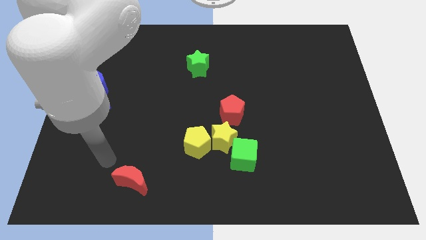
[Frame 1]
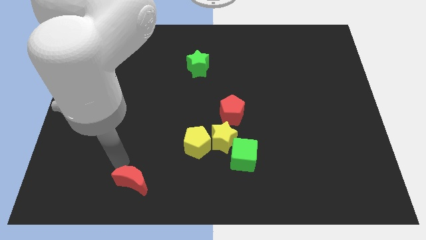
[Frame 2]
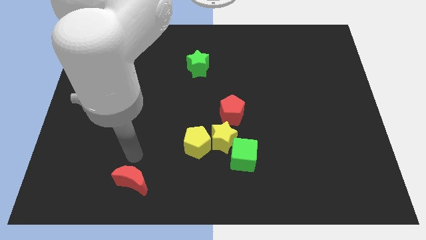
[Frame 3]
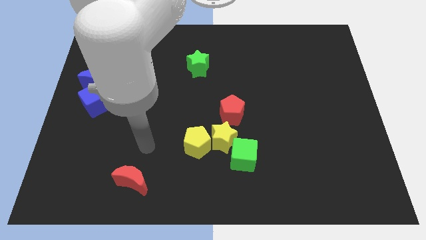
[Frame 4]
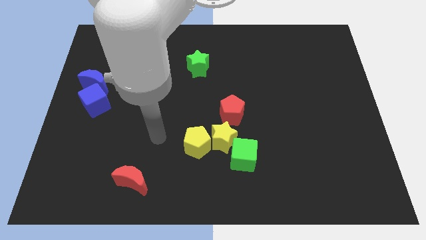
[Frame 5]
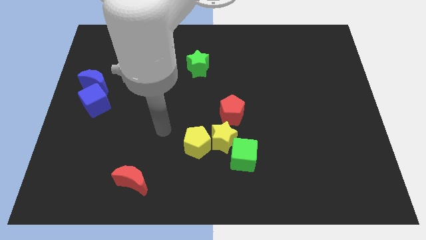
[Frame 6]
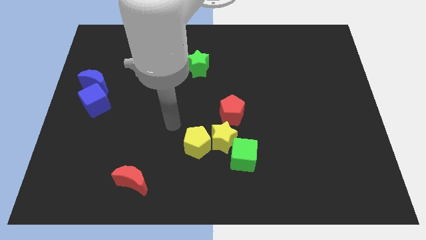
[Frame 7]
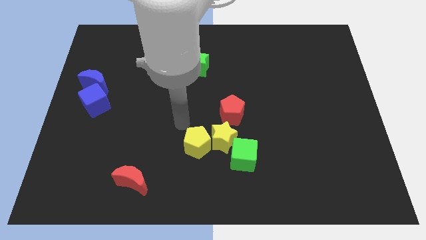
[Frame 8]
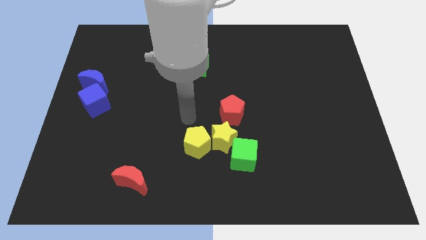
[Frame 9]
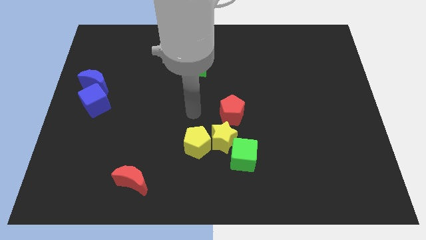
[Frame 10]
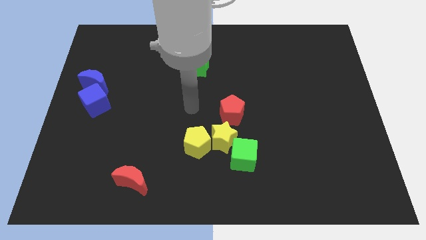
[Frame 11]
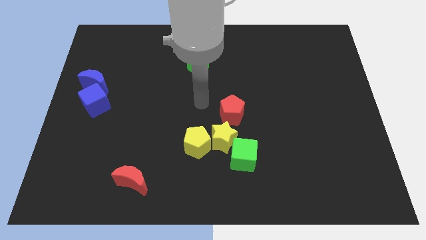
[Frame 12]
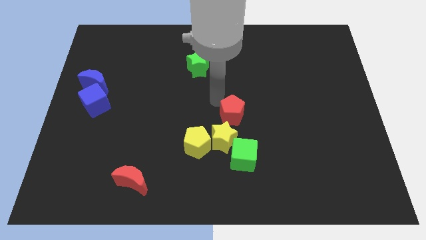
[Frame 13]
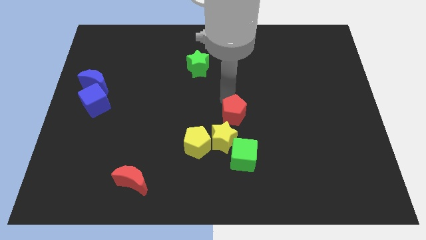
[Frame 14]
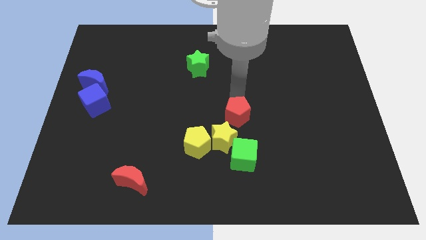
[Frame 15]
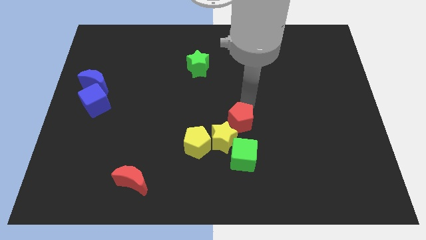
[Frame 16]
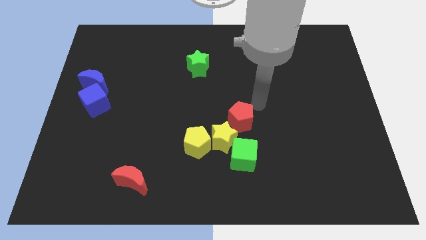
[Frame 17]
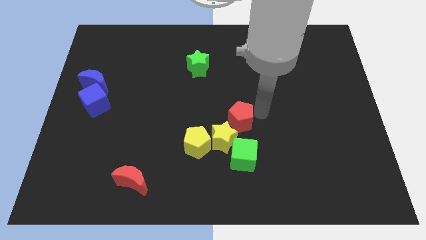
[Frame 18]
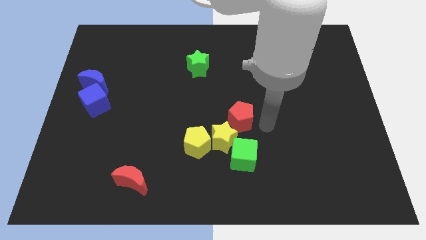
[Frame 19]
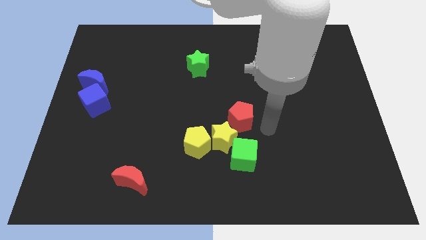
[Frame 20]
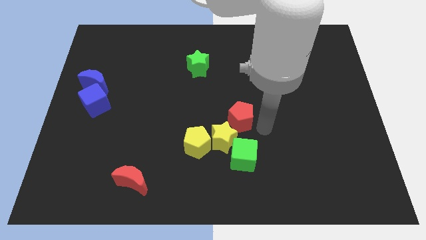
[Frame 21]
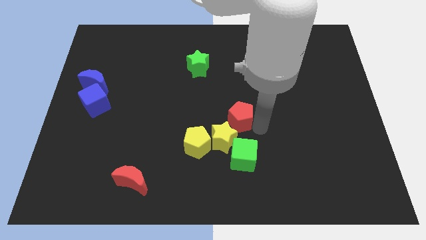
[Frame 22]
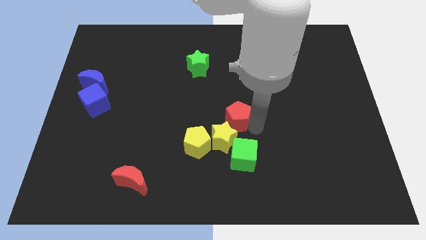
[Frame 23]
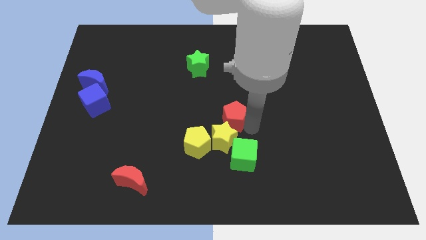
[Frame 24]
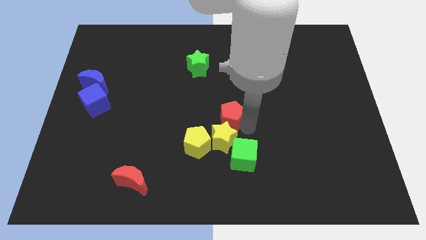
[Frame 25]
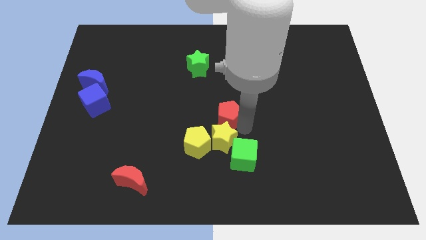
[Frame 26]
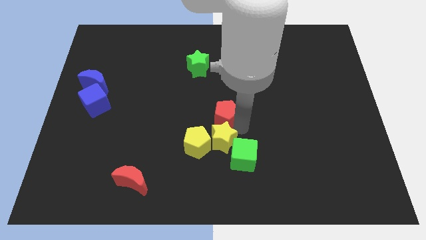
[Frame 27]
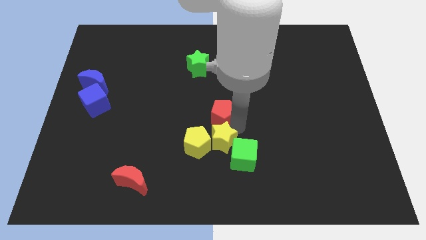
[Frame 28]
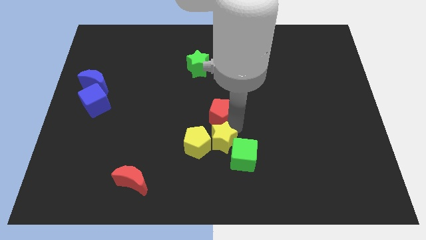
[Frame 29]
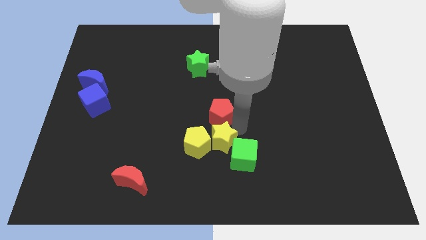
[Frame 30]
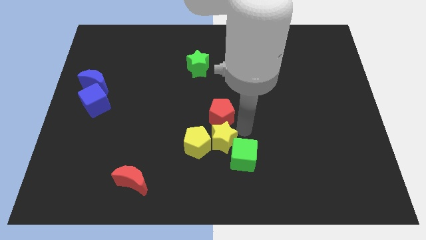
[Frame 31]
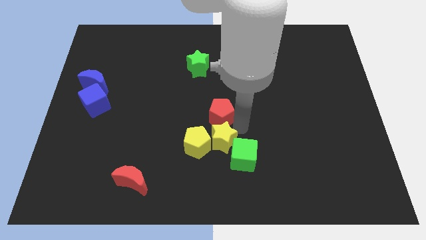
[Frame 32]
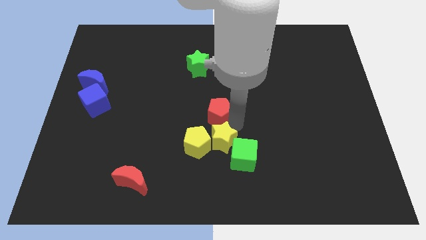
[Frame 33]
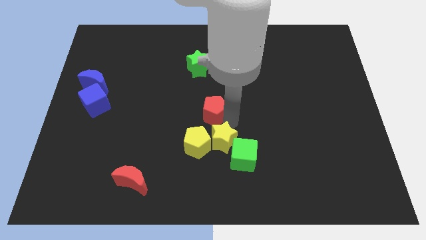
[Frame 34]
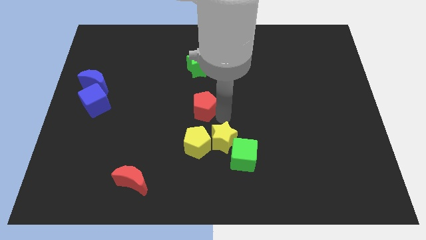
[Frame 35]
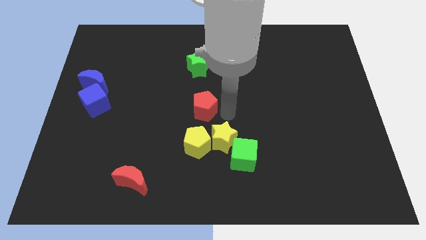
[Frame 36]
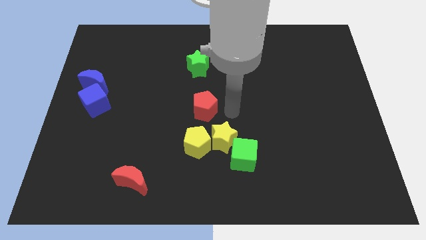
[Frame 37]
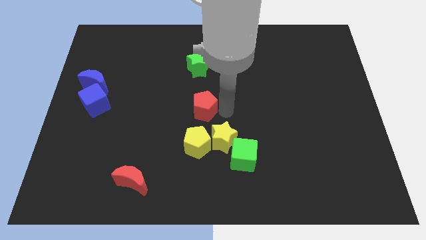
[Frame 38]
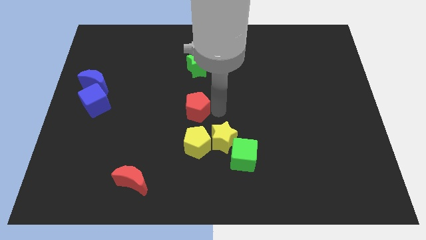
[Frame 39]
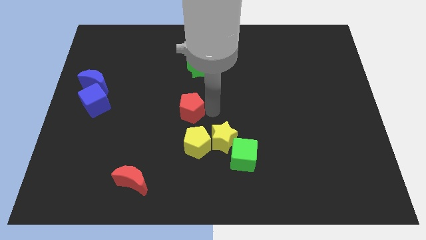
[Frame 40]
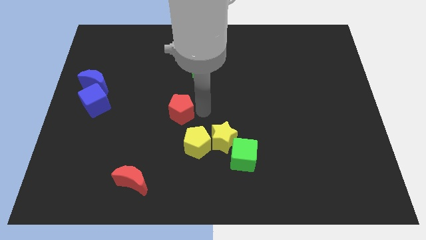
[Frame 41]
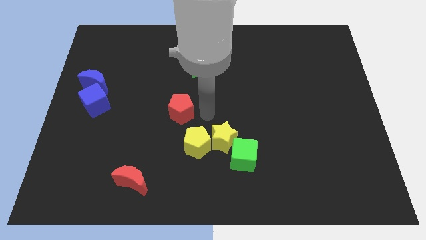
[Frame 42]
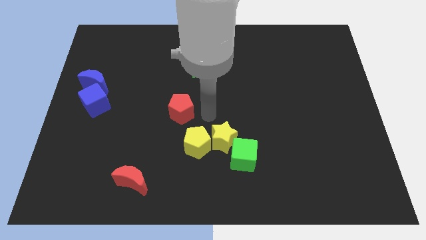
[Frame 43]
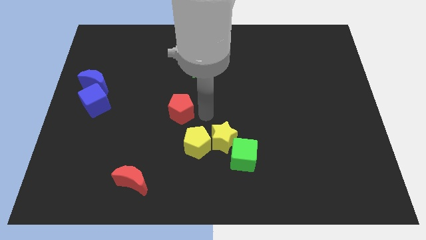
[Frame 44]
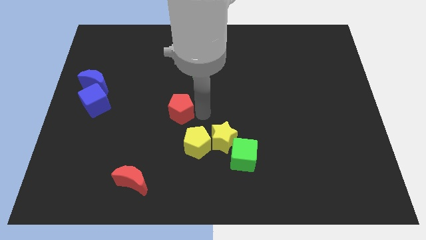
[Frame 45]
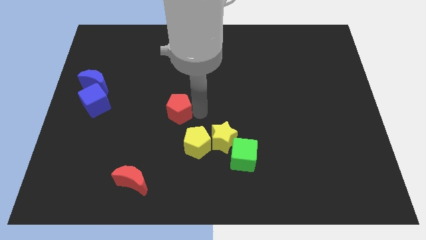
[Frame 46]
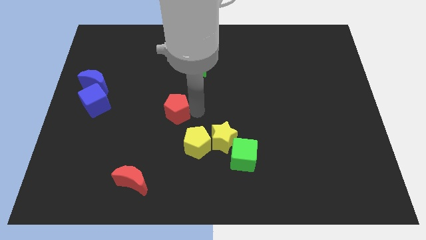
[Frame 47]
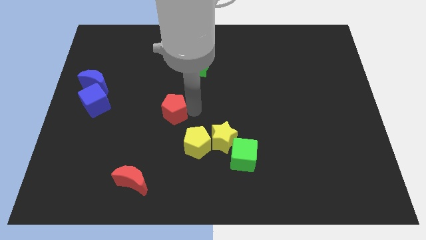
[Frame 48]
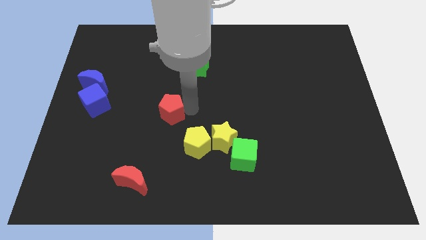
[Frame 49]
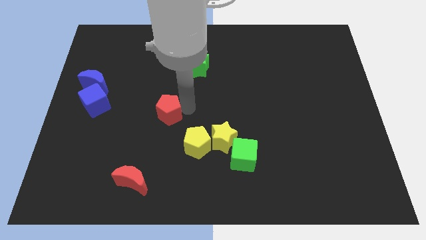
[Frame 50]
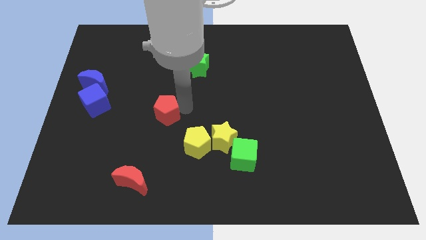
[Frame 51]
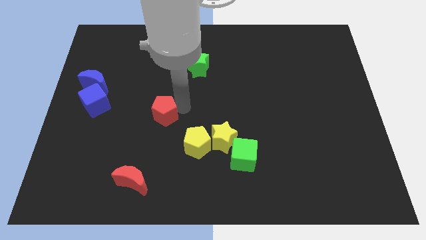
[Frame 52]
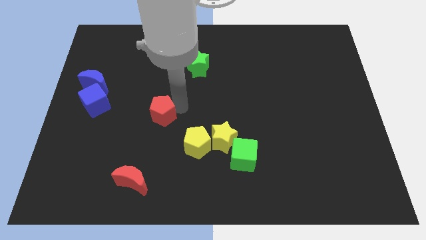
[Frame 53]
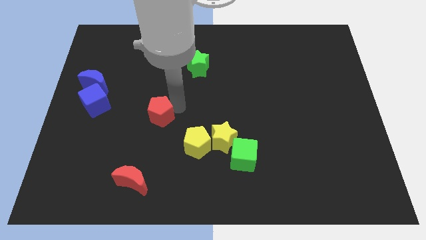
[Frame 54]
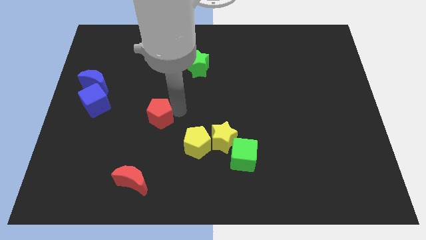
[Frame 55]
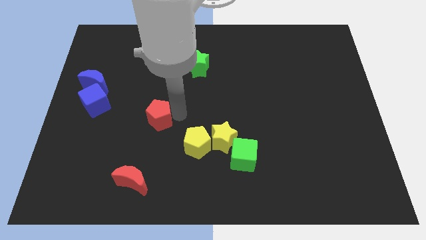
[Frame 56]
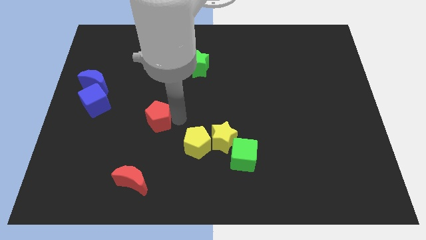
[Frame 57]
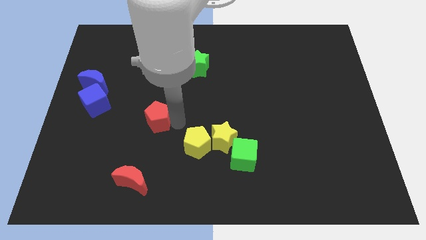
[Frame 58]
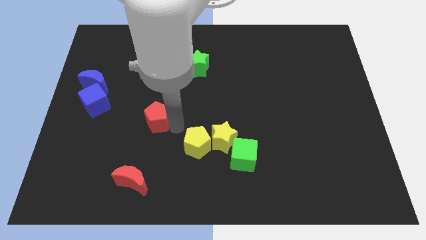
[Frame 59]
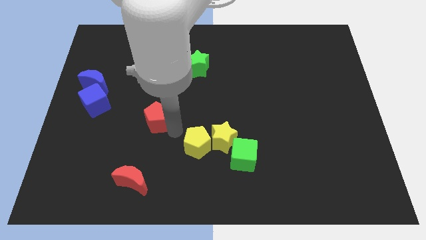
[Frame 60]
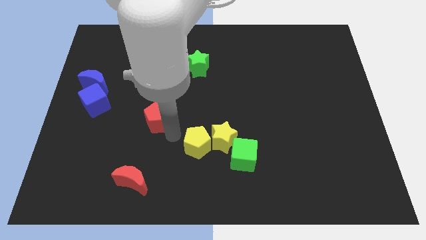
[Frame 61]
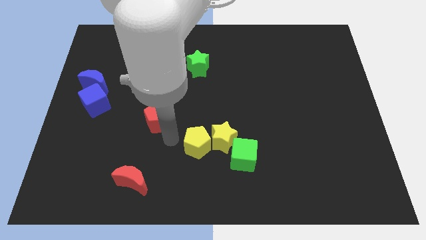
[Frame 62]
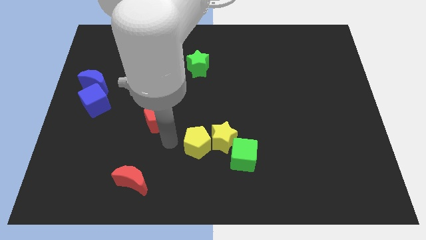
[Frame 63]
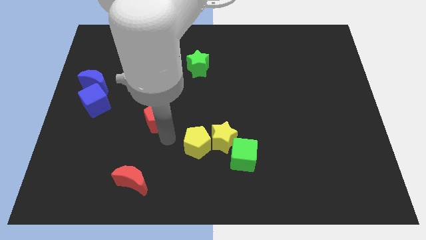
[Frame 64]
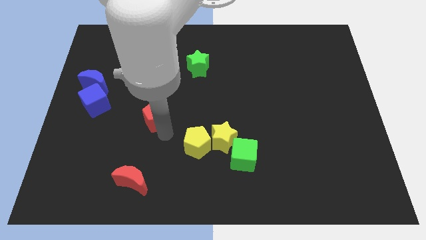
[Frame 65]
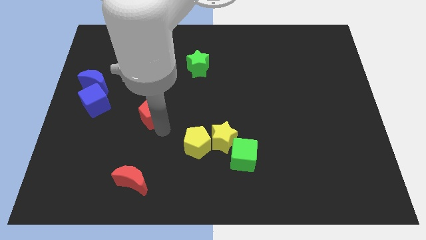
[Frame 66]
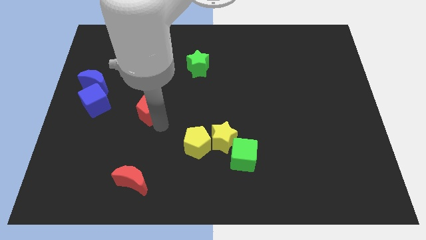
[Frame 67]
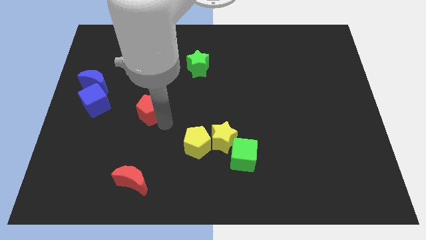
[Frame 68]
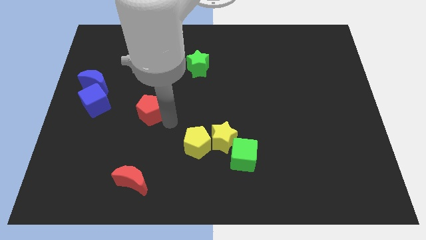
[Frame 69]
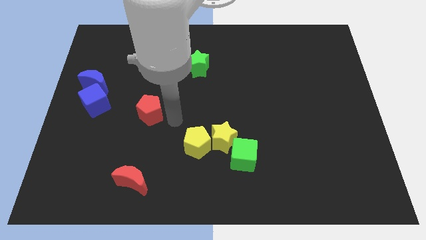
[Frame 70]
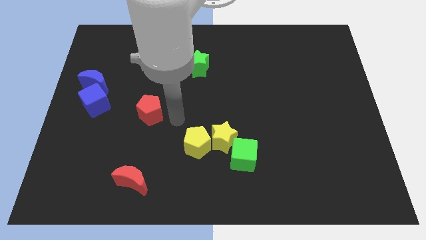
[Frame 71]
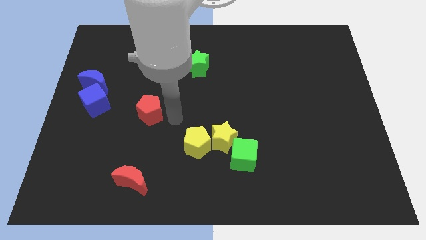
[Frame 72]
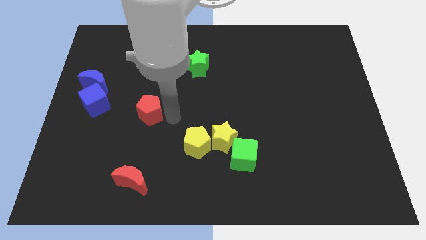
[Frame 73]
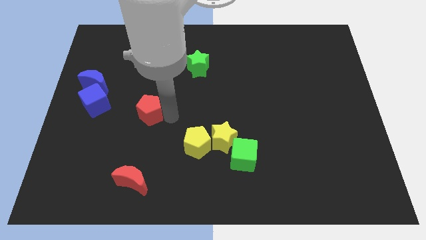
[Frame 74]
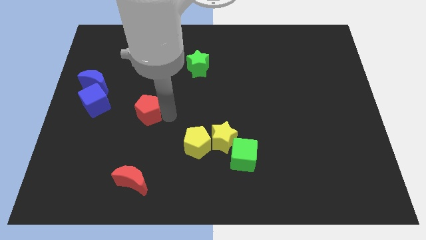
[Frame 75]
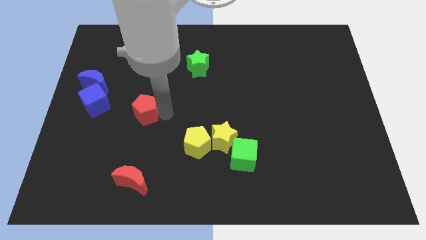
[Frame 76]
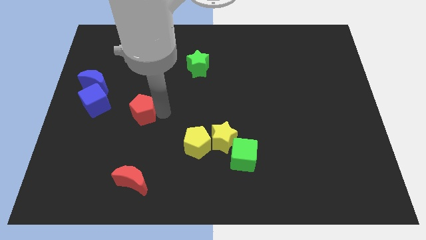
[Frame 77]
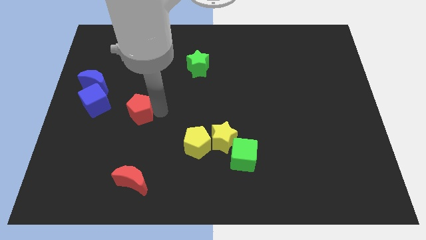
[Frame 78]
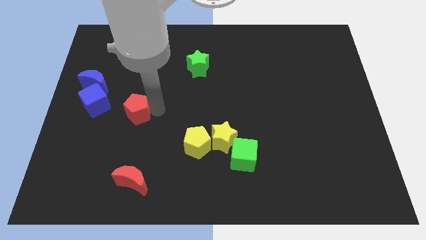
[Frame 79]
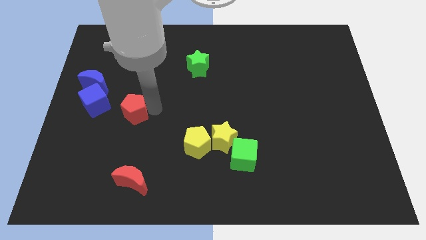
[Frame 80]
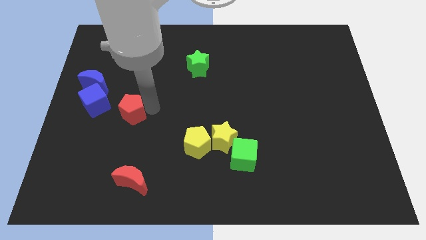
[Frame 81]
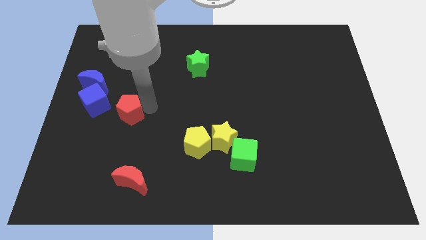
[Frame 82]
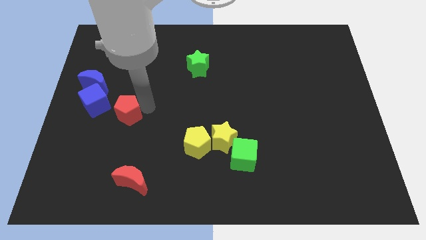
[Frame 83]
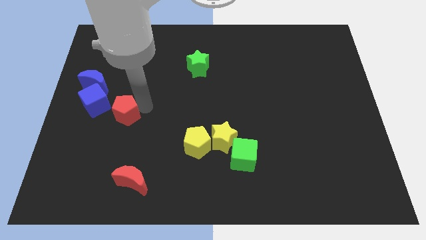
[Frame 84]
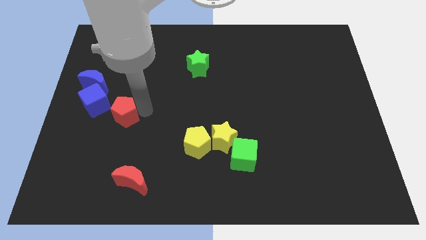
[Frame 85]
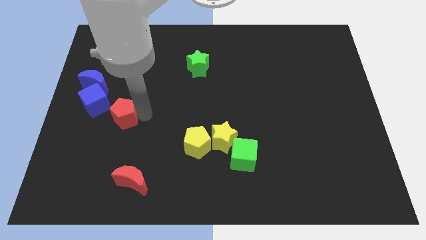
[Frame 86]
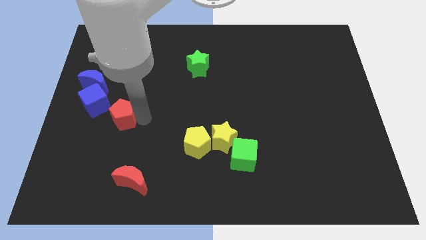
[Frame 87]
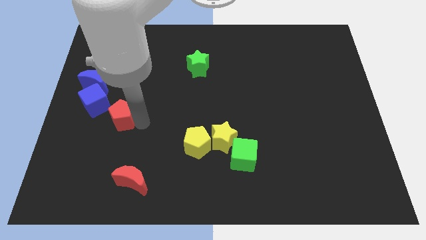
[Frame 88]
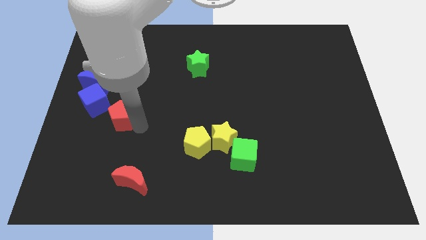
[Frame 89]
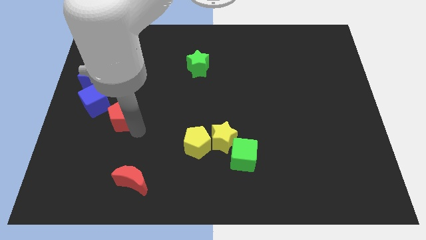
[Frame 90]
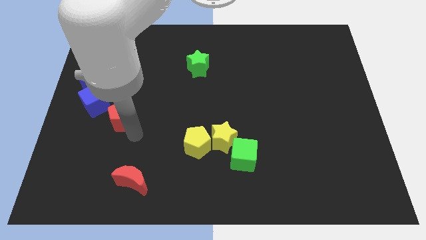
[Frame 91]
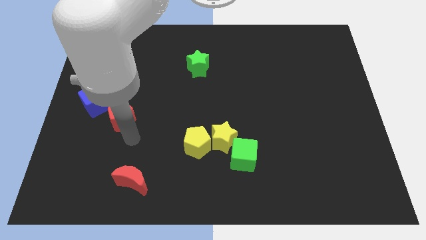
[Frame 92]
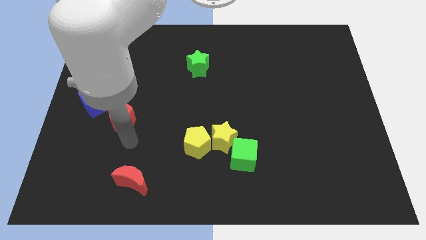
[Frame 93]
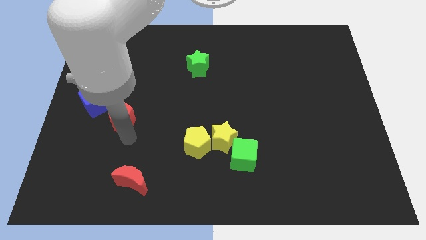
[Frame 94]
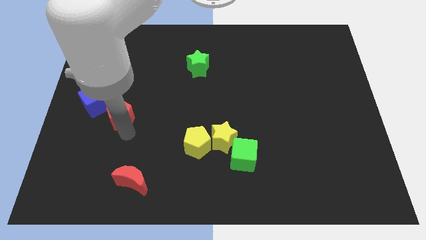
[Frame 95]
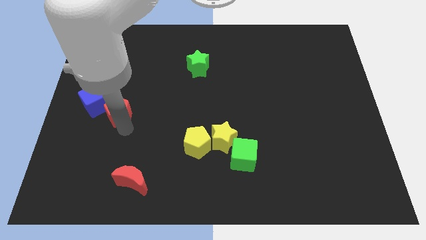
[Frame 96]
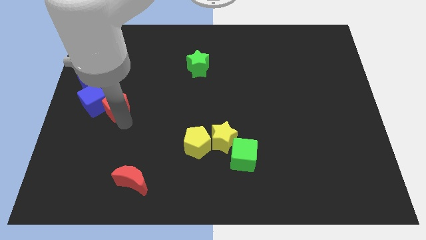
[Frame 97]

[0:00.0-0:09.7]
push the red pentagon towards the blue cube
